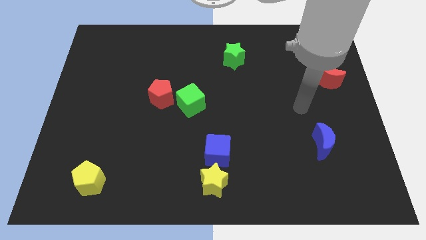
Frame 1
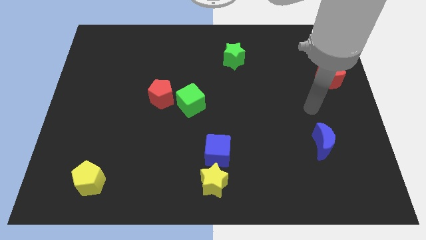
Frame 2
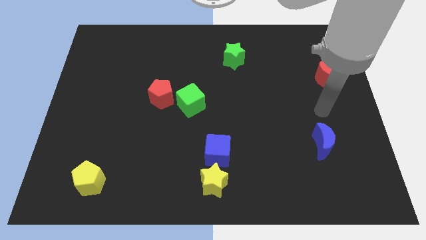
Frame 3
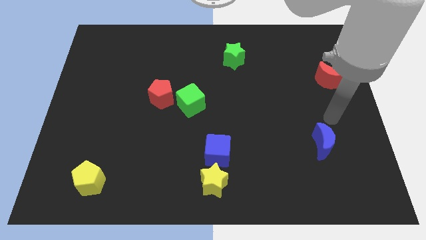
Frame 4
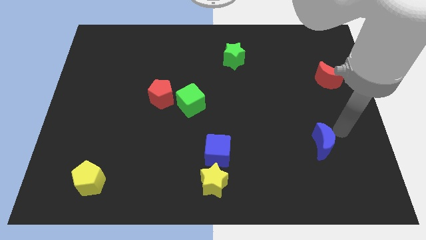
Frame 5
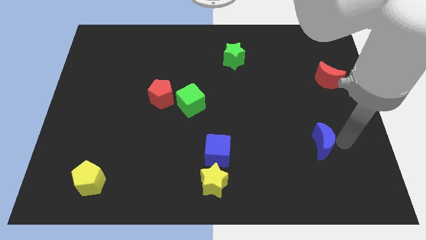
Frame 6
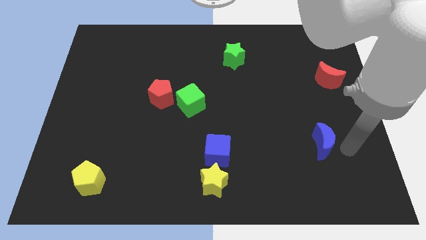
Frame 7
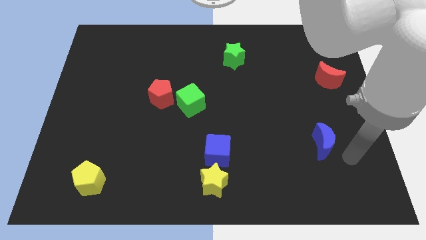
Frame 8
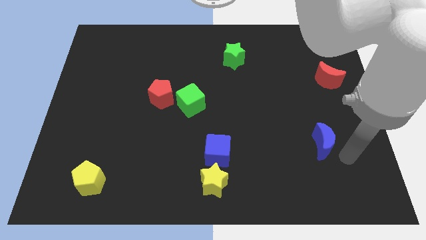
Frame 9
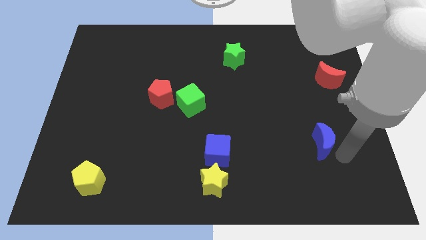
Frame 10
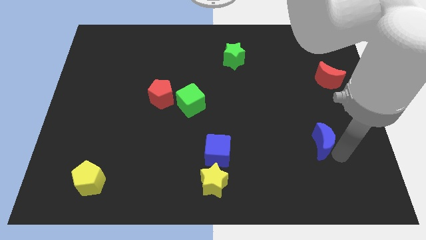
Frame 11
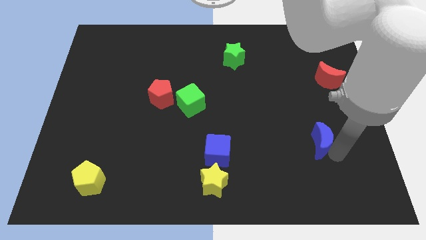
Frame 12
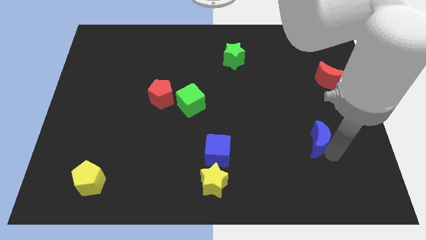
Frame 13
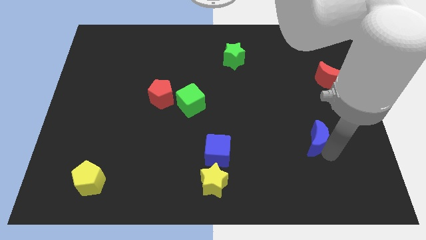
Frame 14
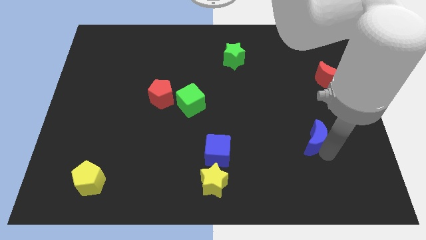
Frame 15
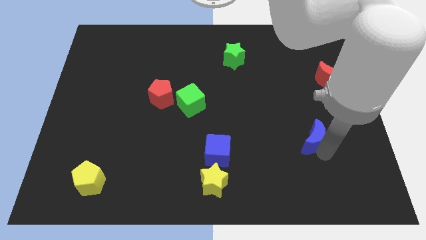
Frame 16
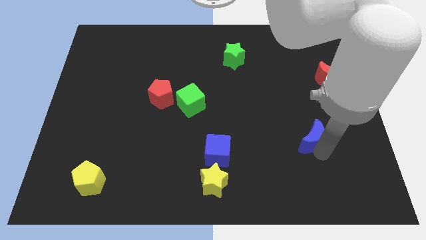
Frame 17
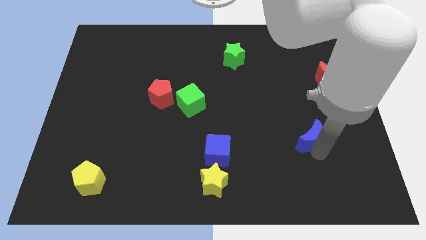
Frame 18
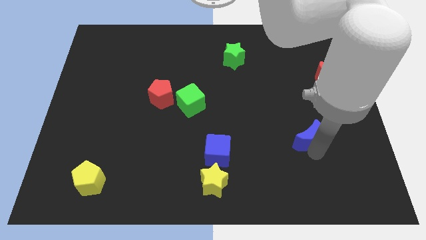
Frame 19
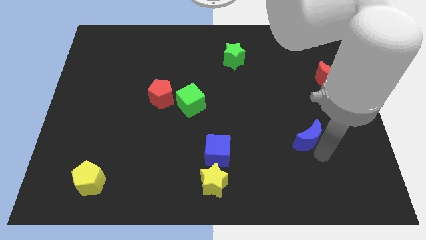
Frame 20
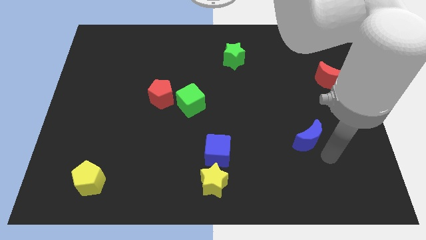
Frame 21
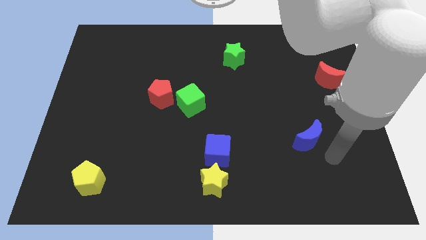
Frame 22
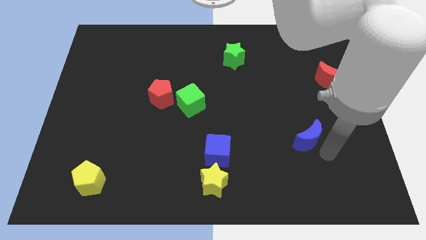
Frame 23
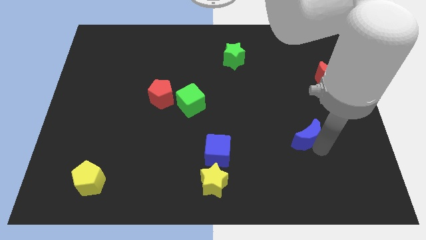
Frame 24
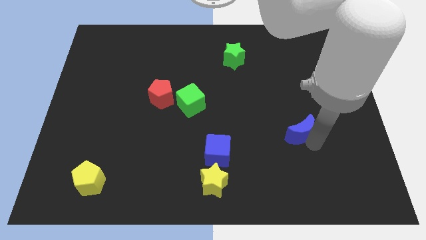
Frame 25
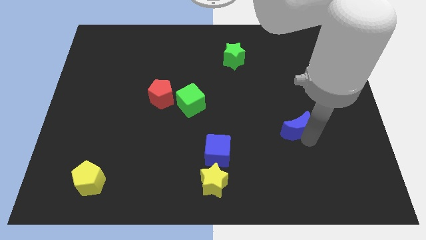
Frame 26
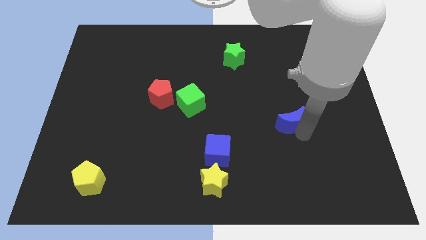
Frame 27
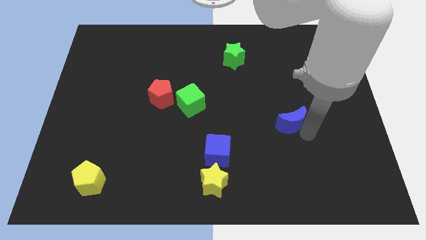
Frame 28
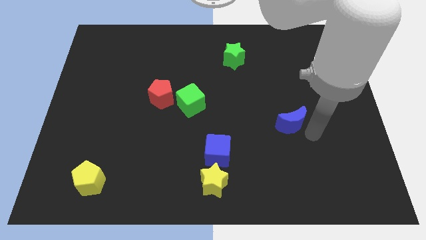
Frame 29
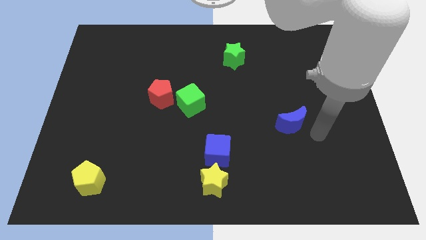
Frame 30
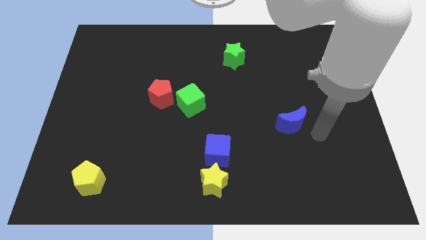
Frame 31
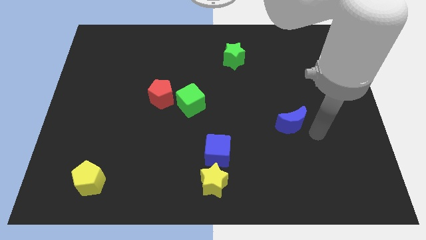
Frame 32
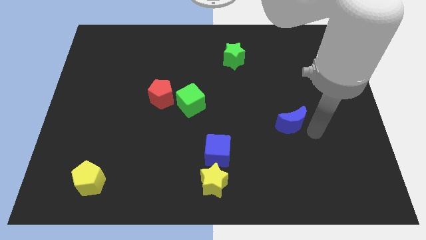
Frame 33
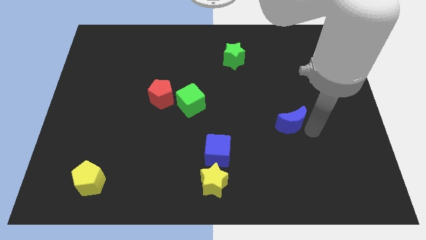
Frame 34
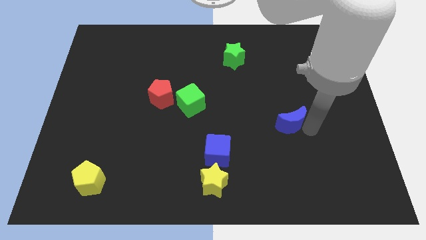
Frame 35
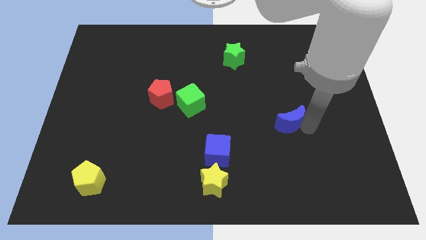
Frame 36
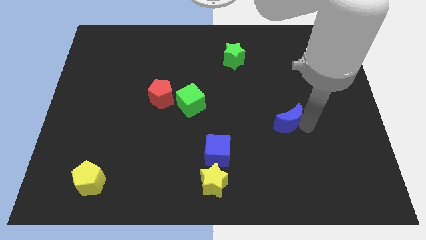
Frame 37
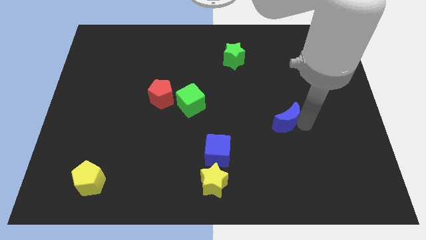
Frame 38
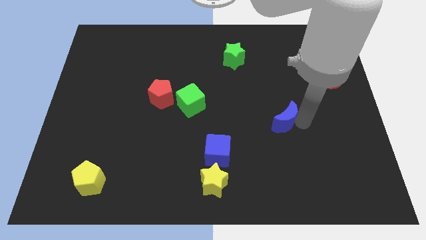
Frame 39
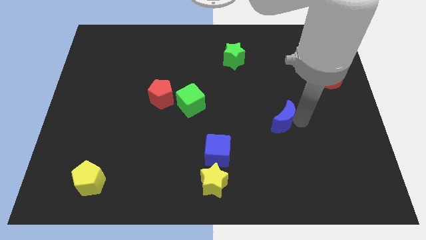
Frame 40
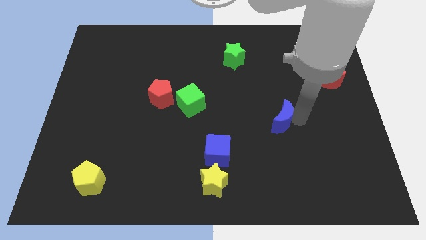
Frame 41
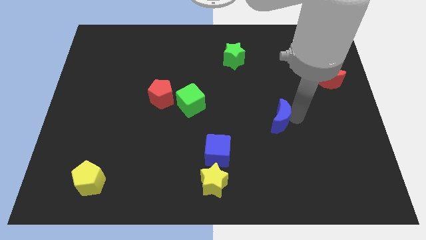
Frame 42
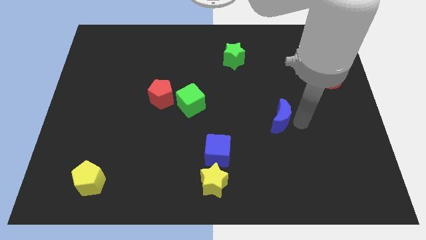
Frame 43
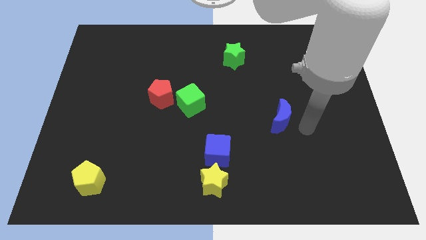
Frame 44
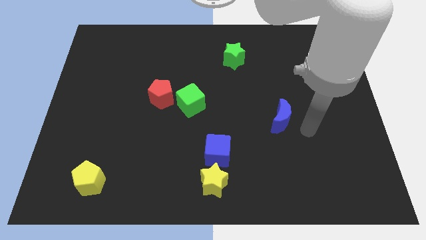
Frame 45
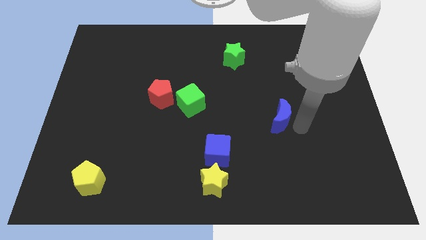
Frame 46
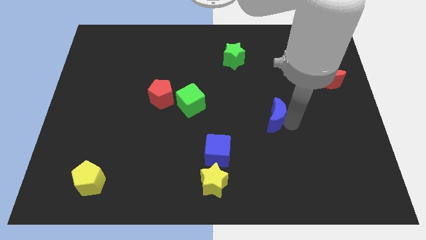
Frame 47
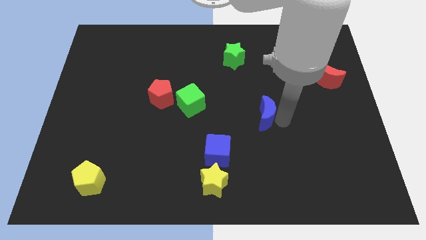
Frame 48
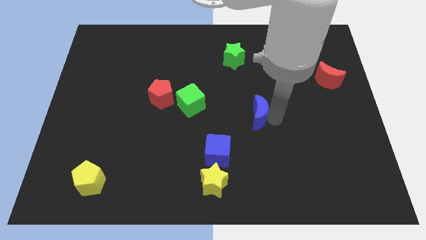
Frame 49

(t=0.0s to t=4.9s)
move the blue moon to the center

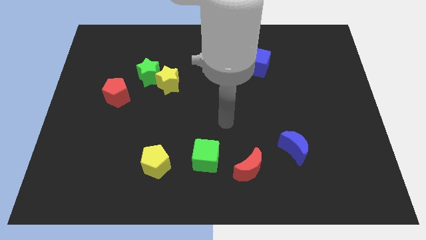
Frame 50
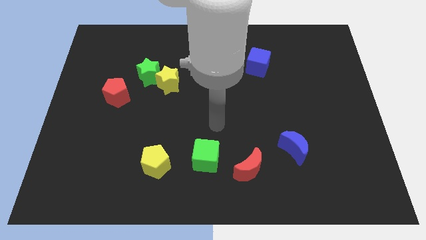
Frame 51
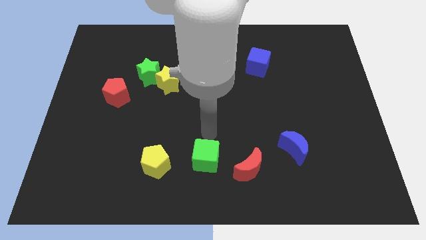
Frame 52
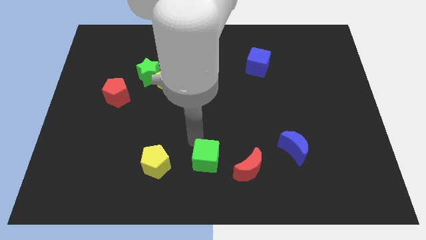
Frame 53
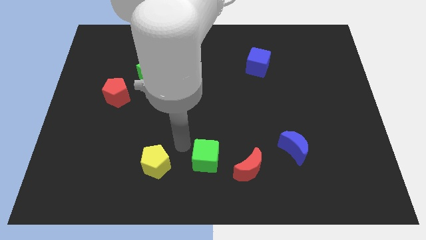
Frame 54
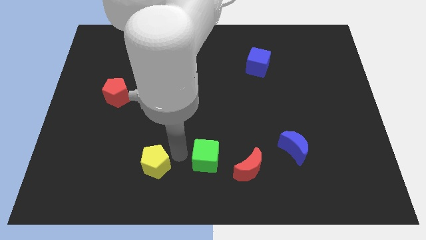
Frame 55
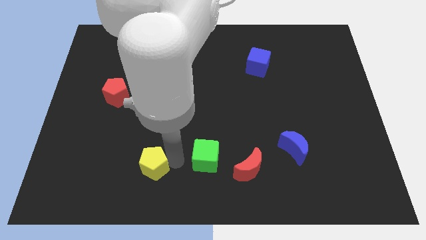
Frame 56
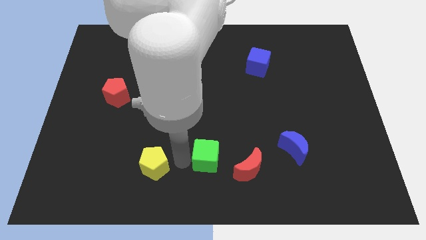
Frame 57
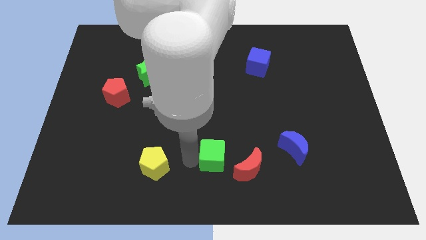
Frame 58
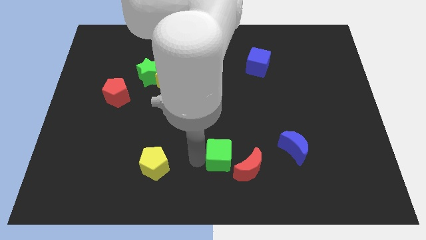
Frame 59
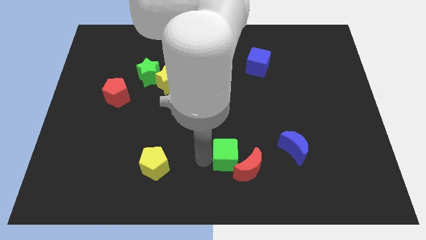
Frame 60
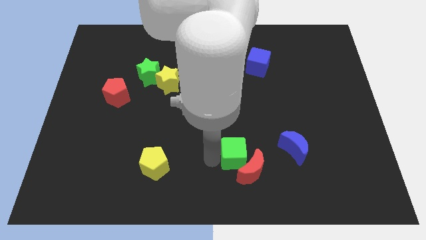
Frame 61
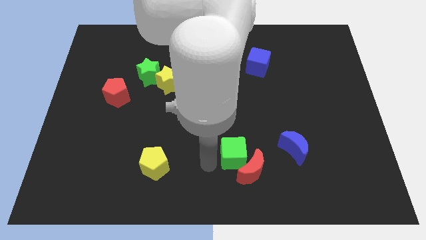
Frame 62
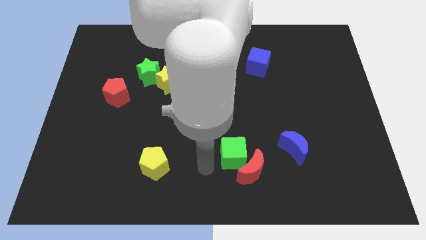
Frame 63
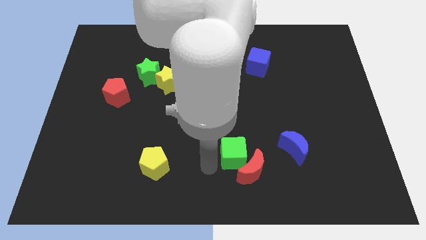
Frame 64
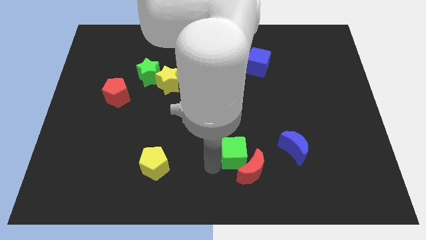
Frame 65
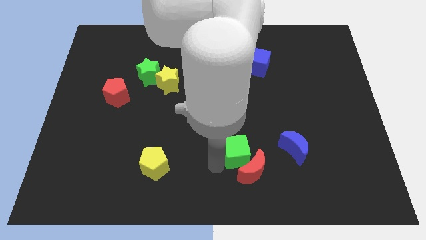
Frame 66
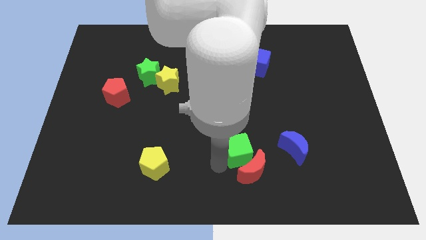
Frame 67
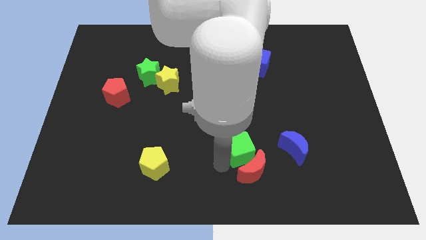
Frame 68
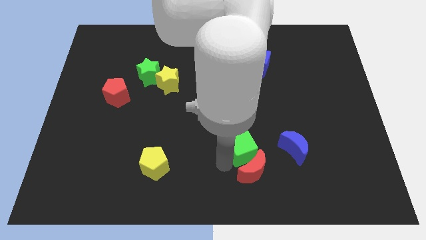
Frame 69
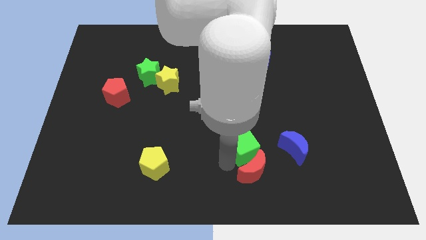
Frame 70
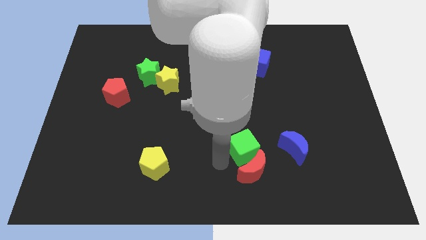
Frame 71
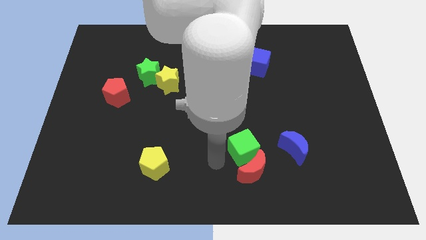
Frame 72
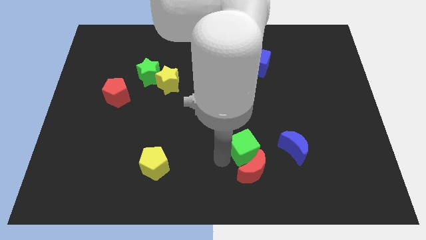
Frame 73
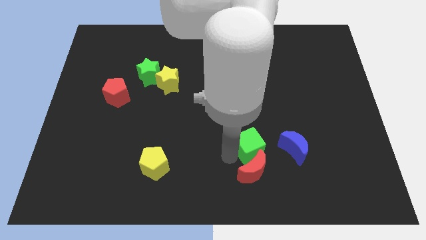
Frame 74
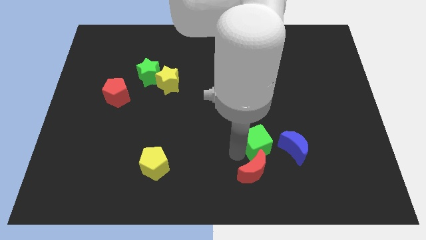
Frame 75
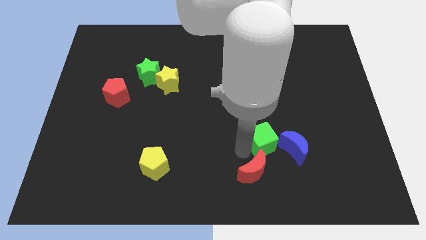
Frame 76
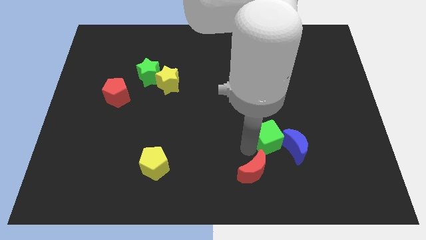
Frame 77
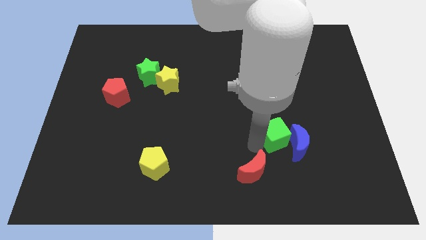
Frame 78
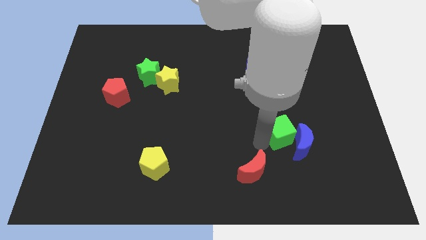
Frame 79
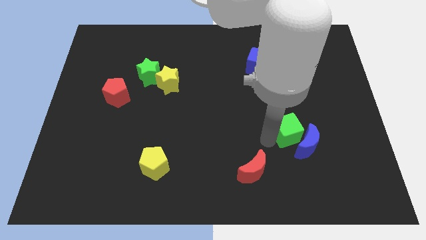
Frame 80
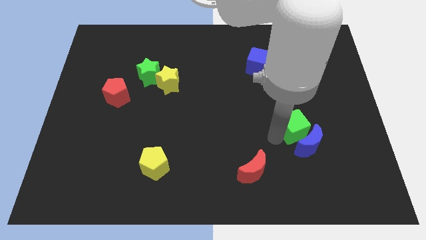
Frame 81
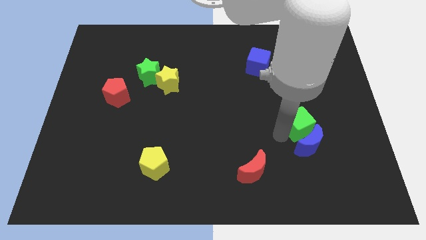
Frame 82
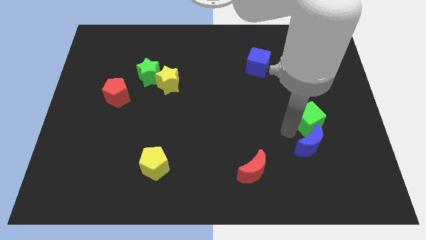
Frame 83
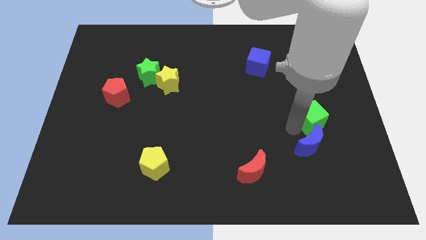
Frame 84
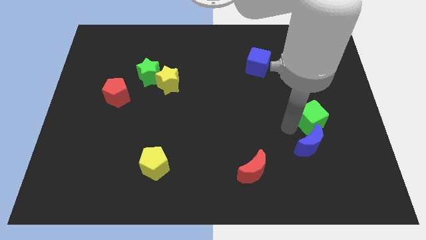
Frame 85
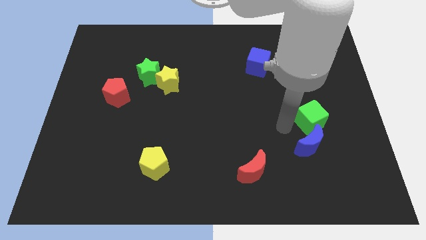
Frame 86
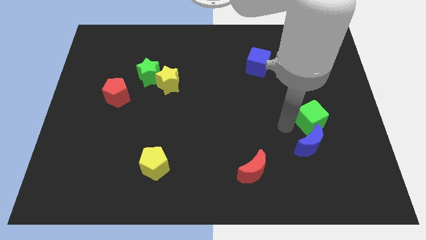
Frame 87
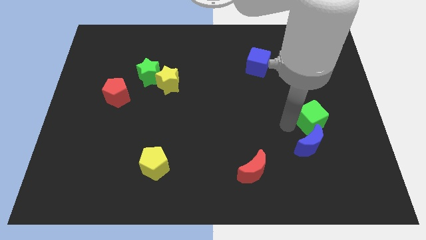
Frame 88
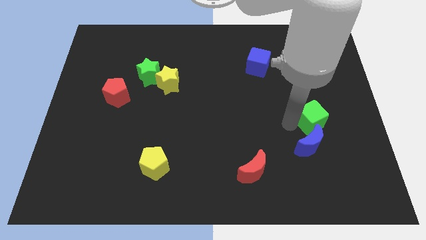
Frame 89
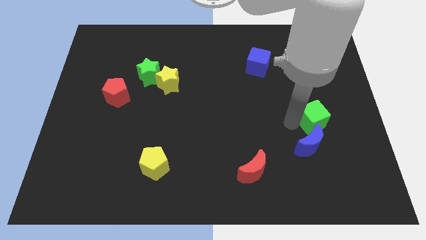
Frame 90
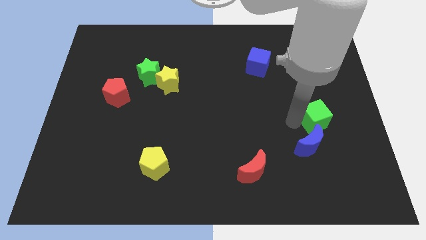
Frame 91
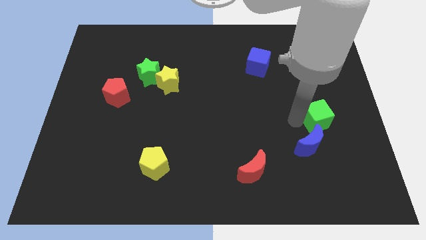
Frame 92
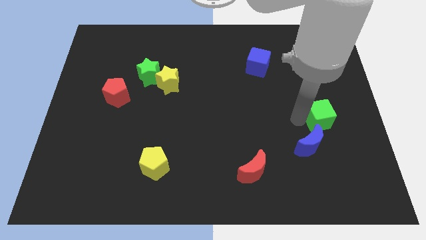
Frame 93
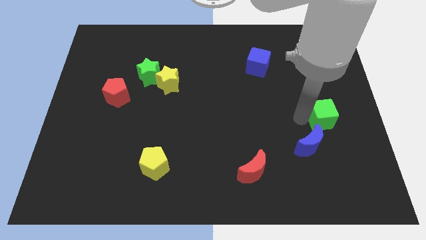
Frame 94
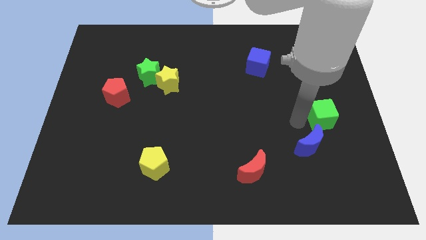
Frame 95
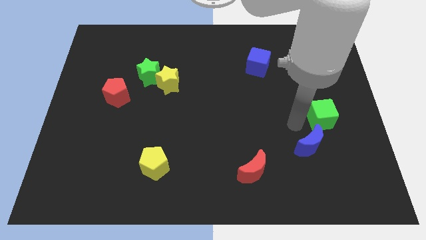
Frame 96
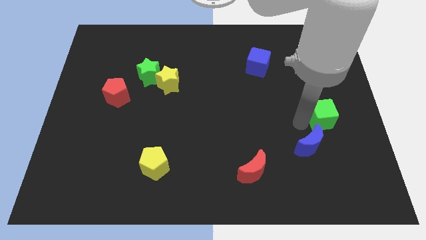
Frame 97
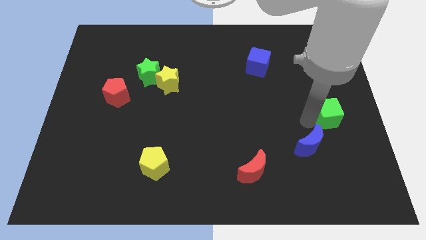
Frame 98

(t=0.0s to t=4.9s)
put the green cube to the center right
